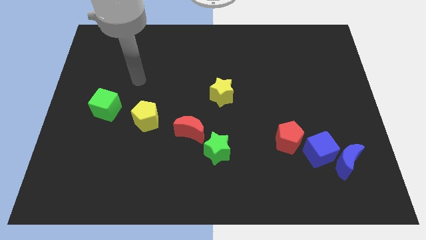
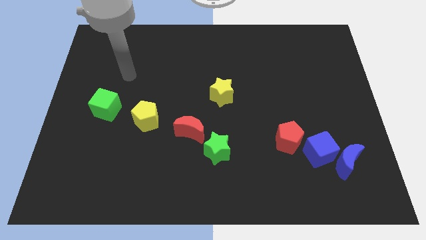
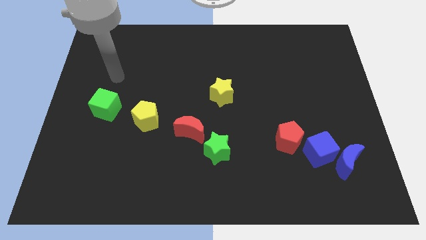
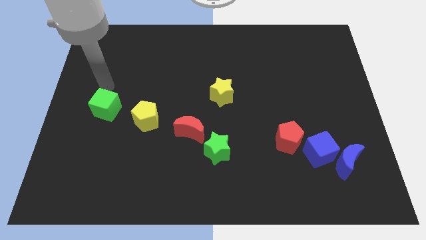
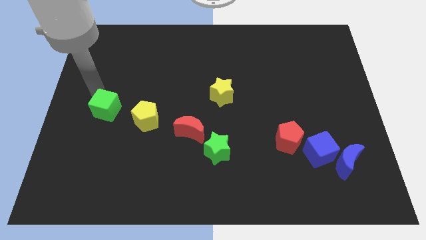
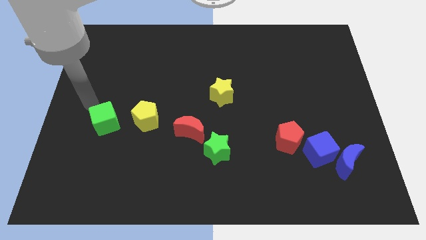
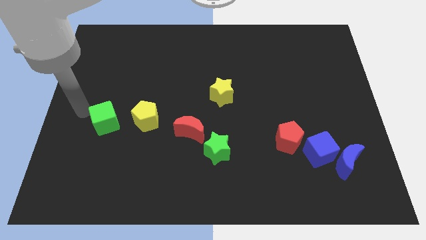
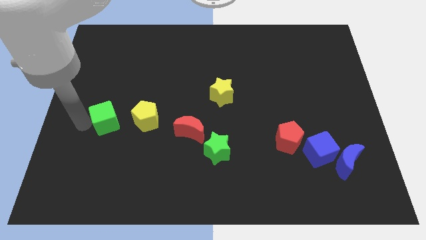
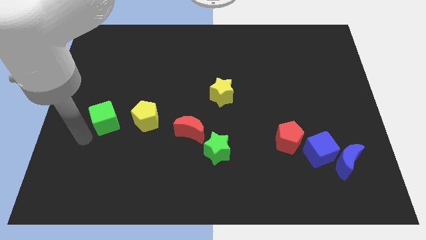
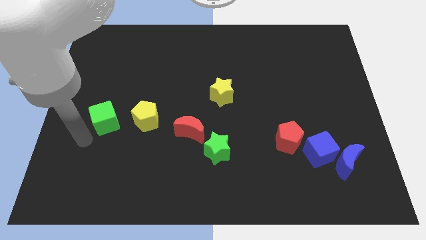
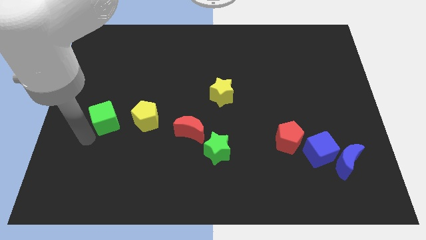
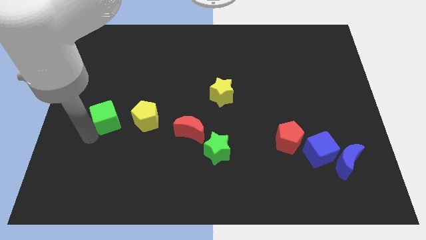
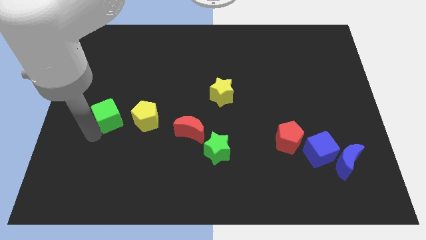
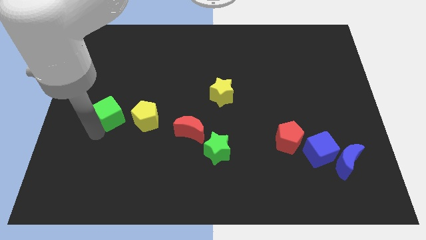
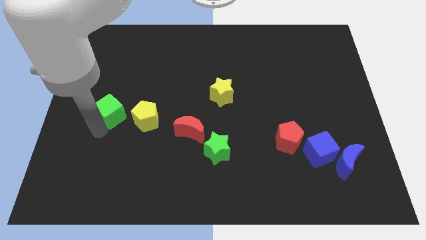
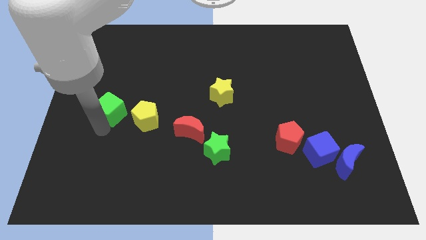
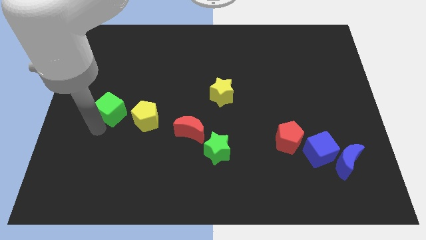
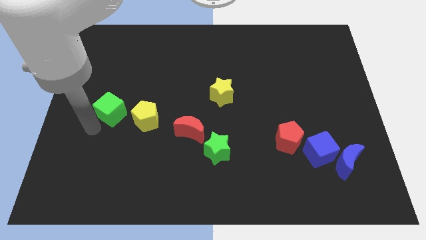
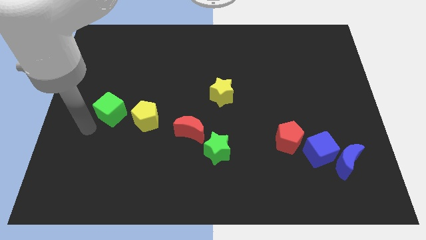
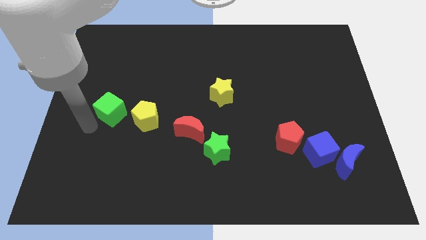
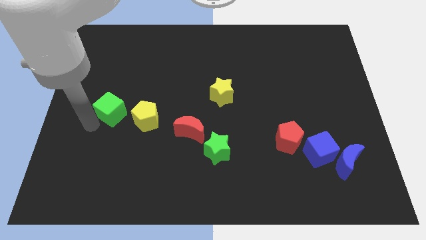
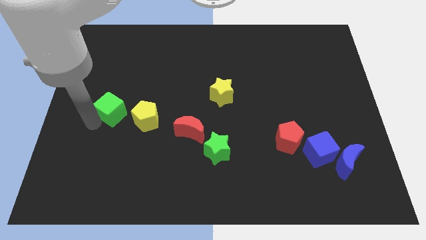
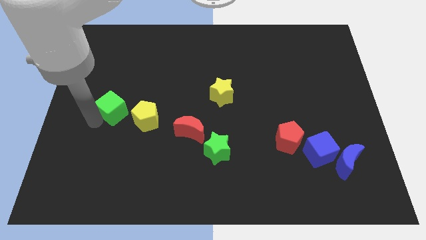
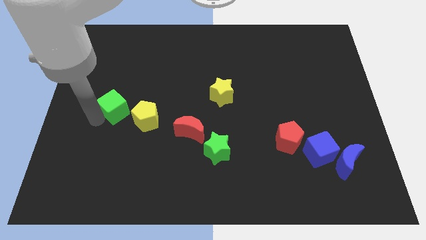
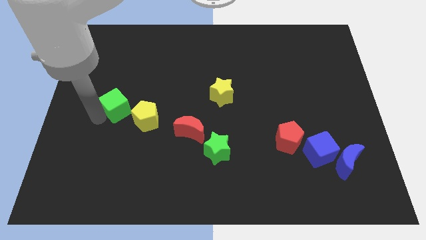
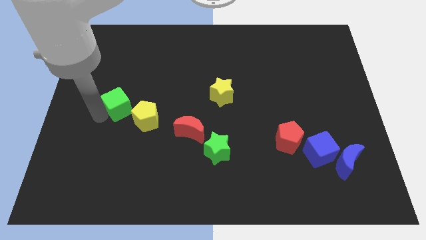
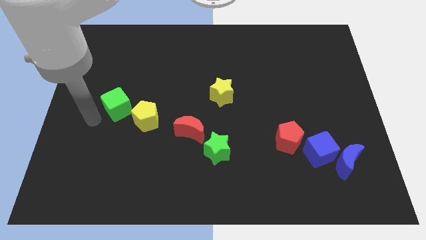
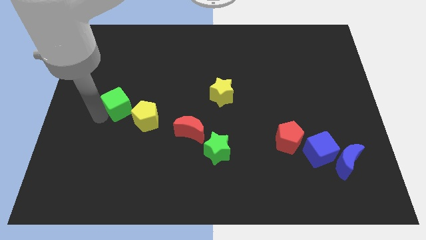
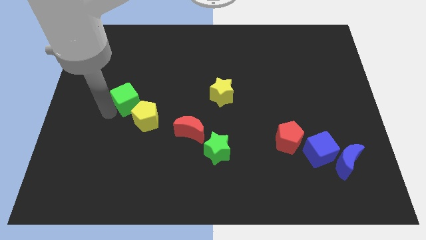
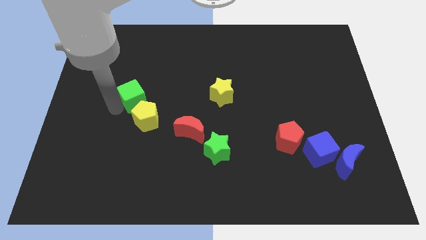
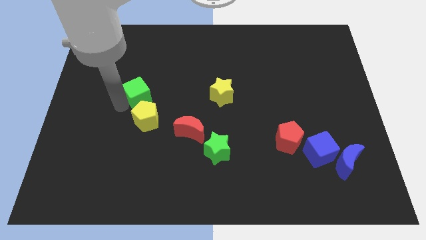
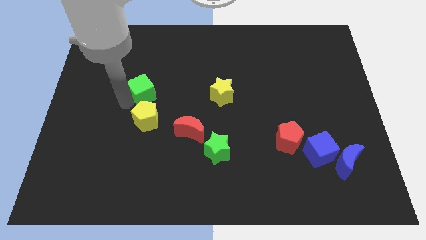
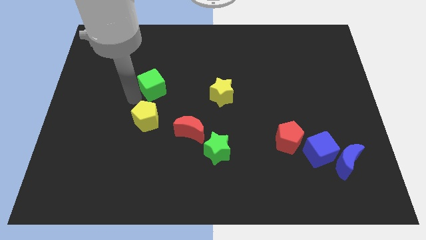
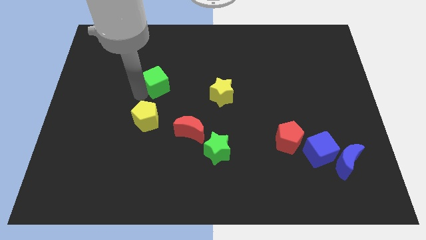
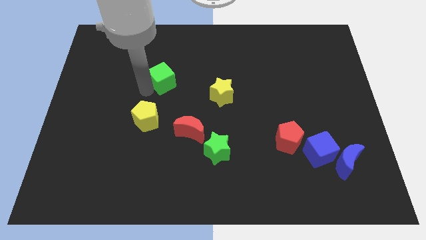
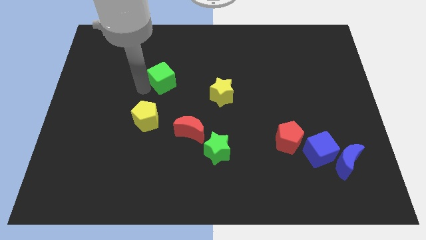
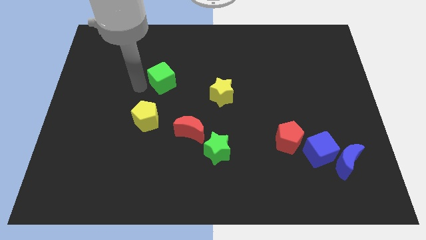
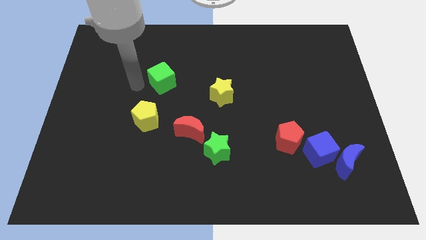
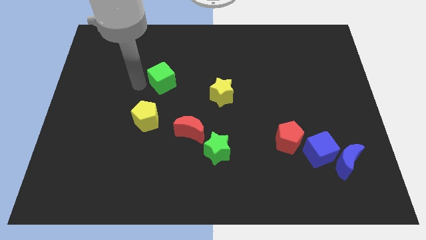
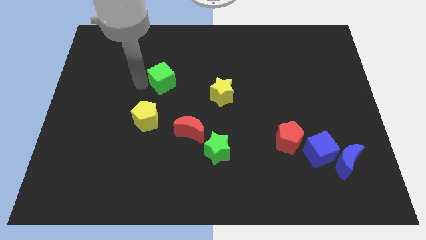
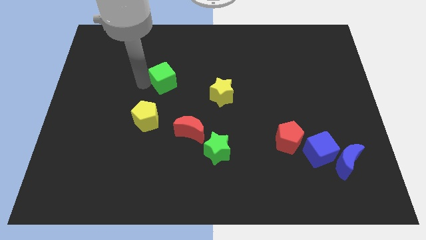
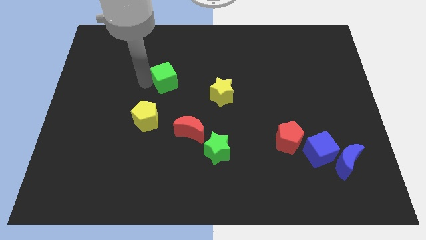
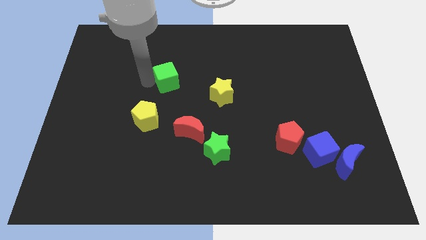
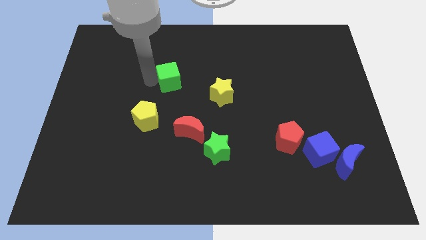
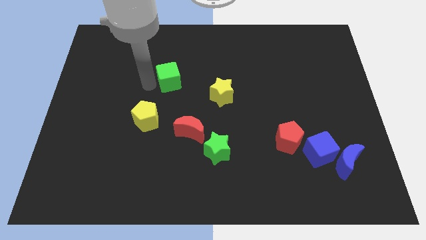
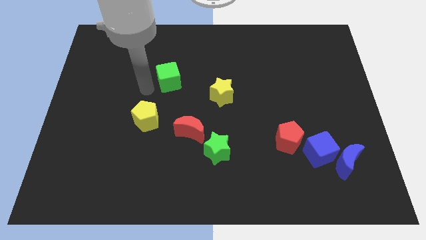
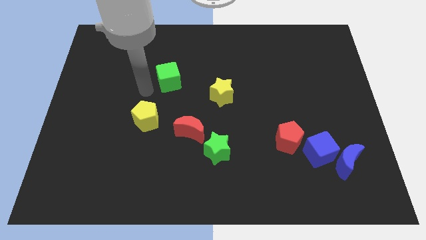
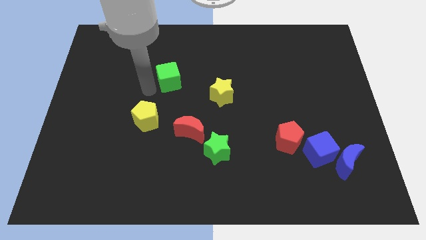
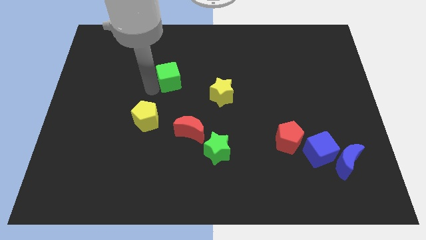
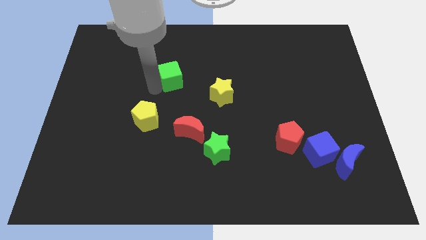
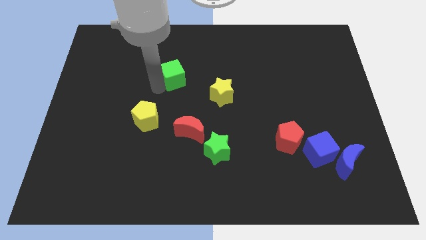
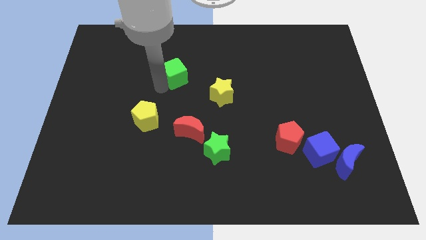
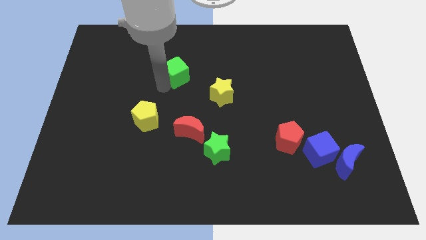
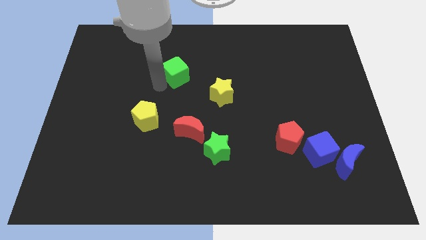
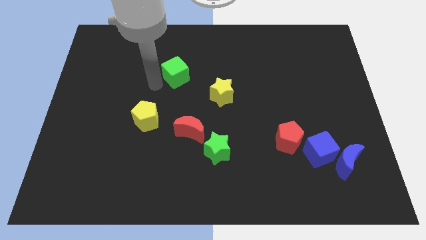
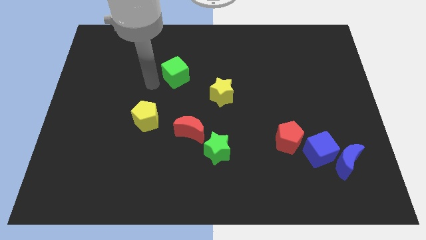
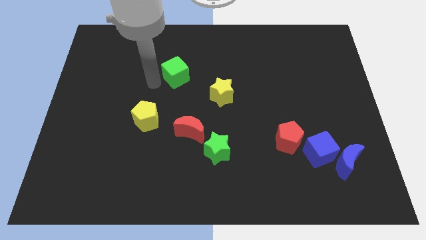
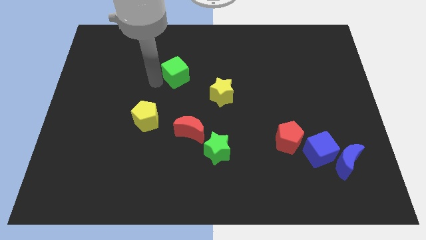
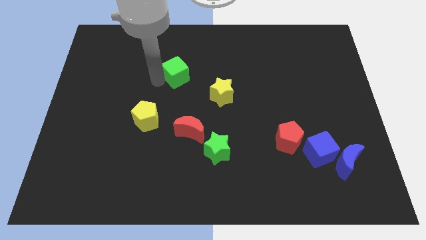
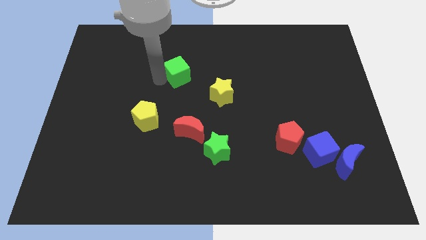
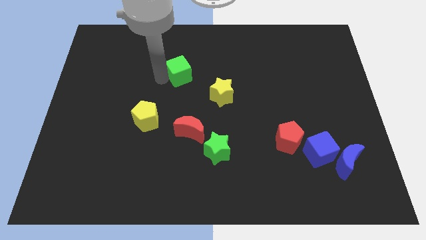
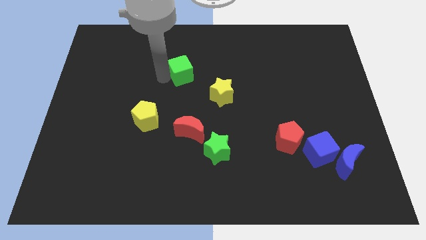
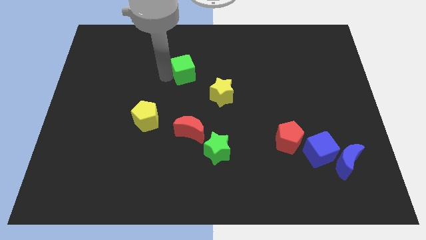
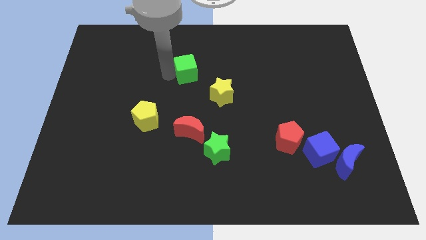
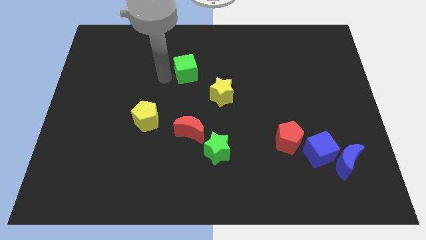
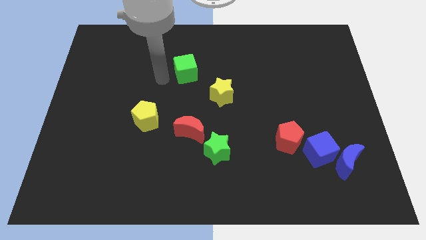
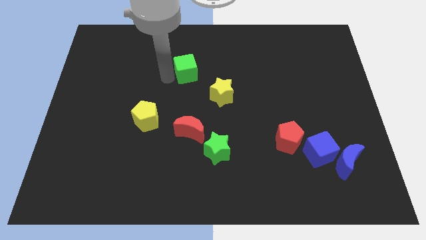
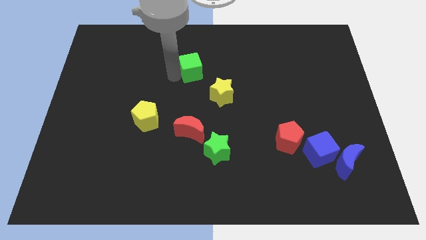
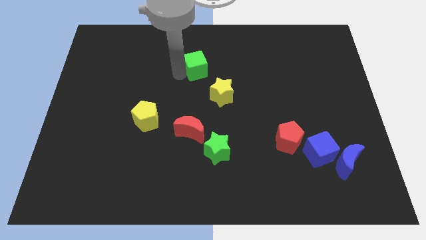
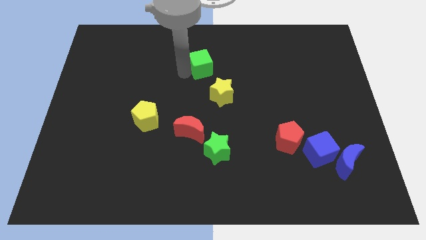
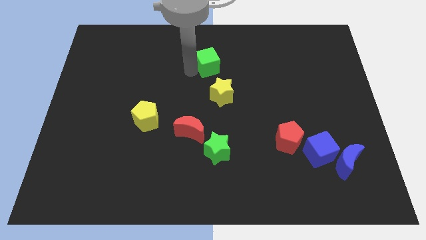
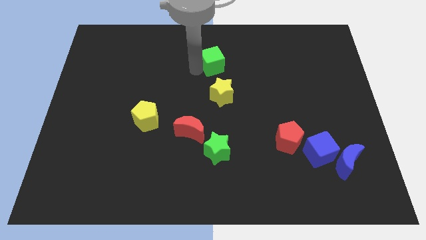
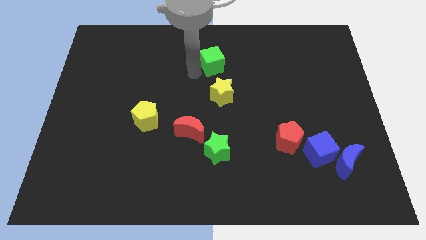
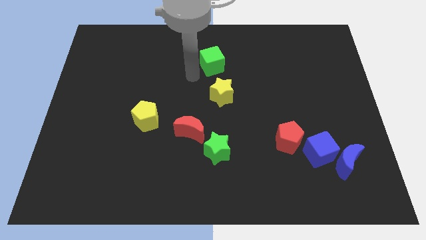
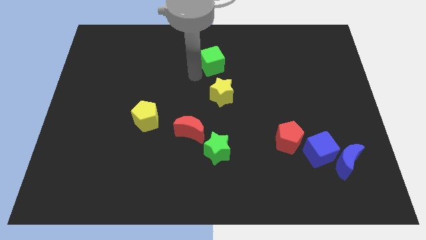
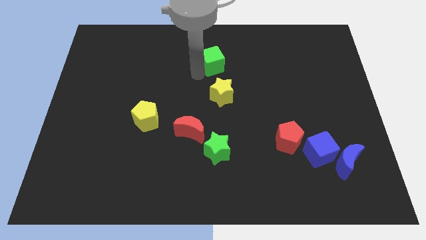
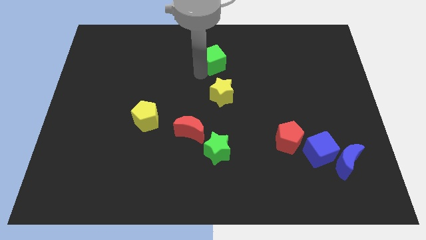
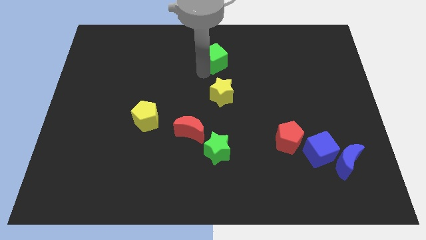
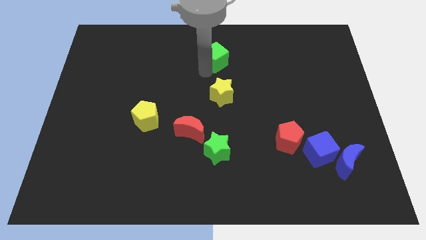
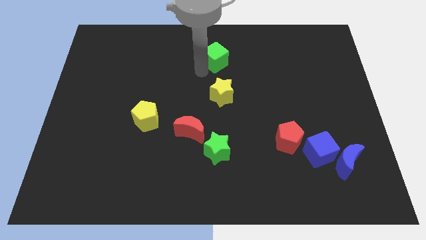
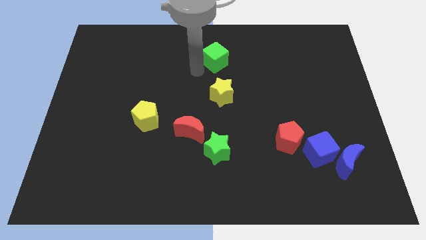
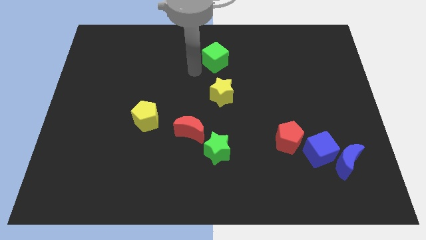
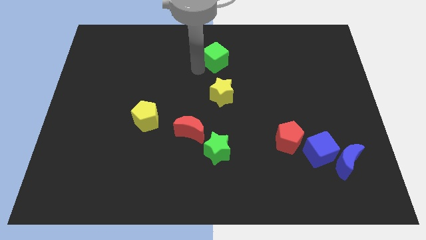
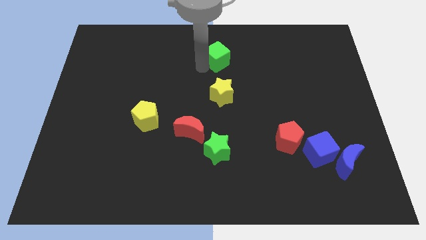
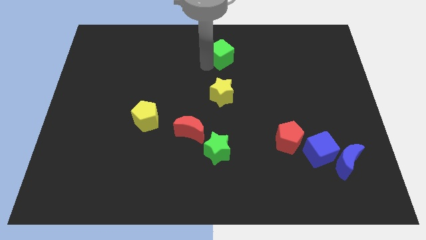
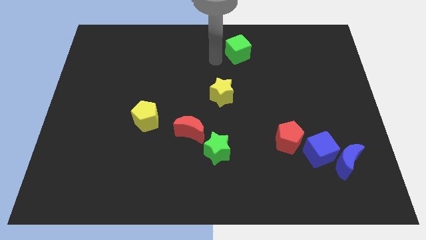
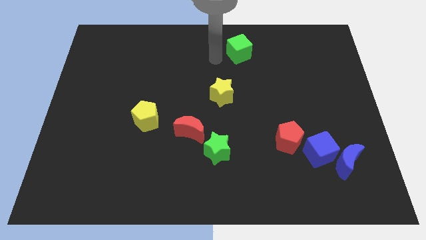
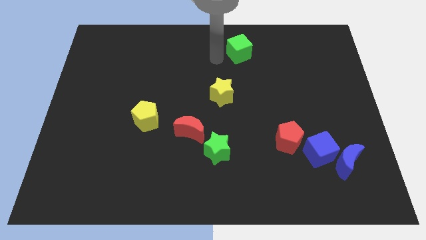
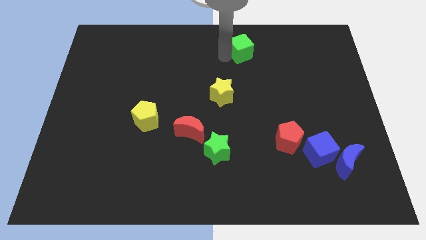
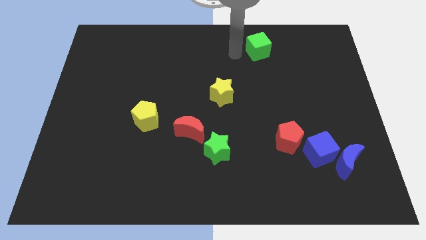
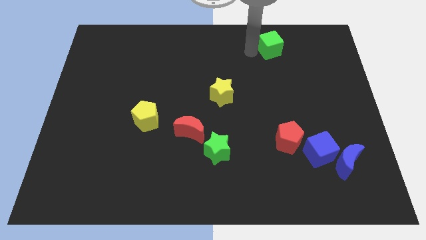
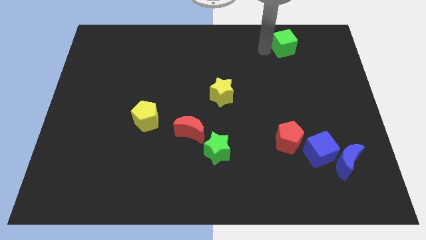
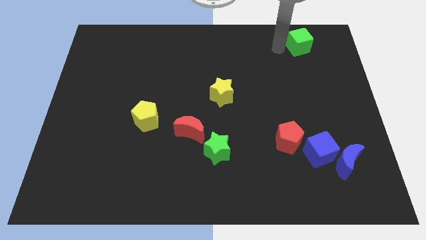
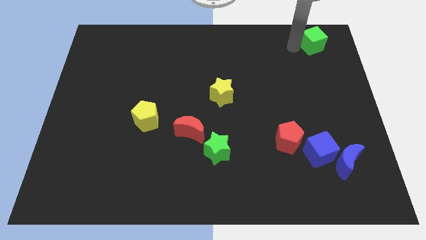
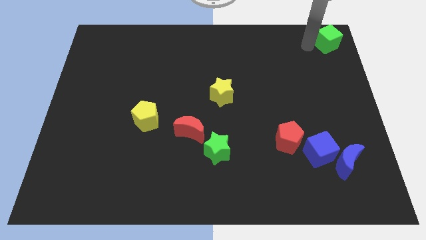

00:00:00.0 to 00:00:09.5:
push the green cube to the top right
